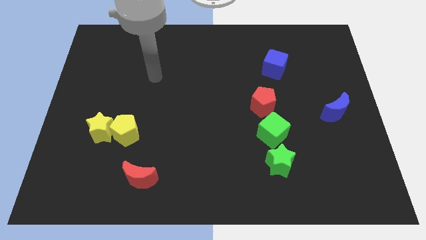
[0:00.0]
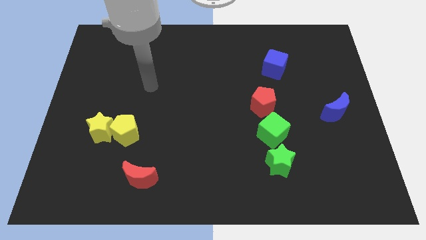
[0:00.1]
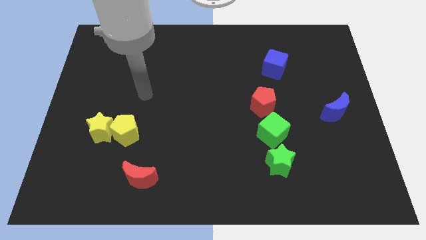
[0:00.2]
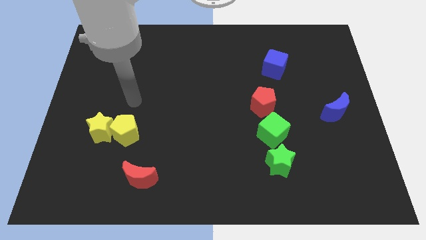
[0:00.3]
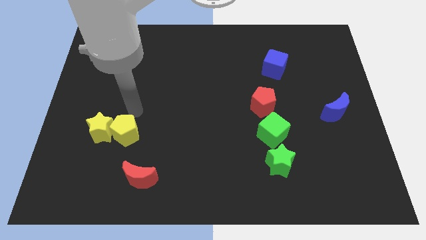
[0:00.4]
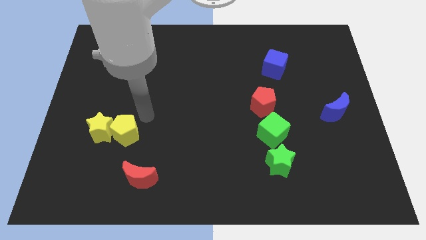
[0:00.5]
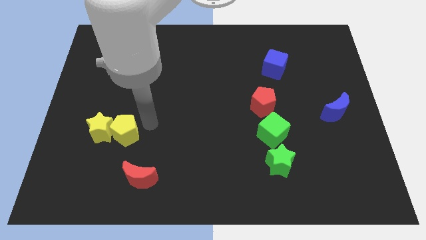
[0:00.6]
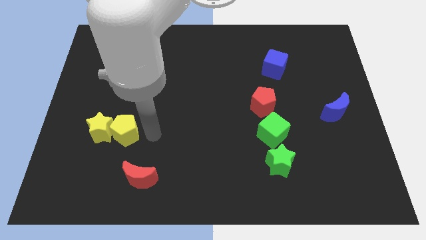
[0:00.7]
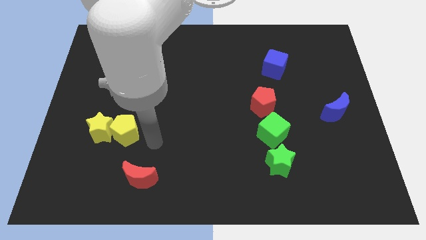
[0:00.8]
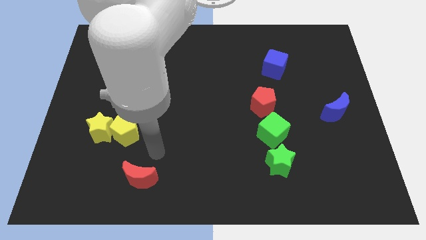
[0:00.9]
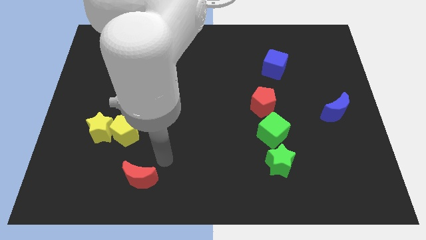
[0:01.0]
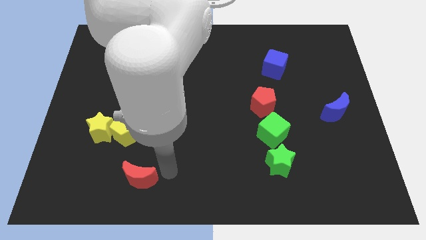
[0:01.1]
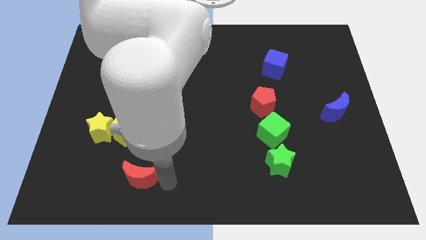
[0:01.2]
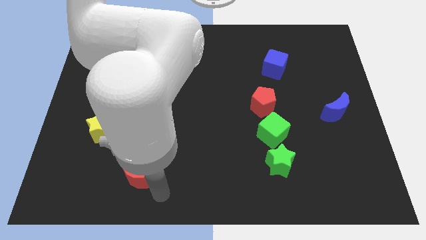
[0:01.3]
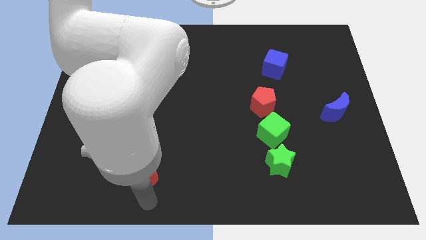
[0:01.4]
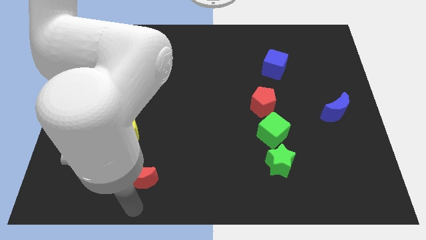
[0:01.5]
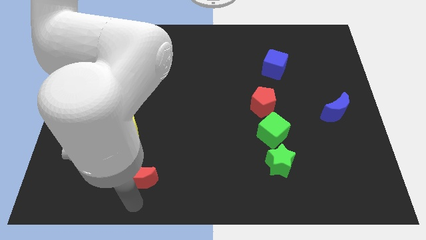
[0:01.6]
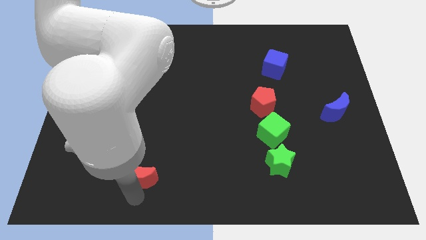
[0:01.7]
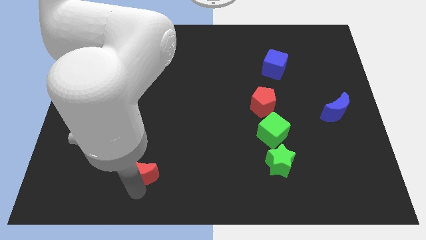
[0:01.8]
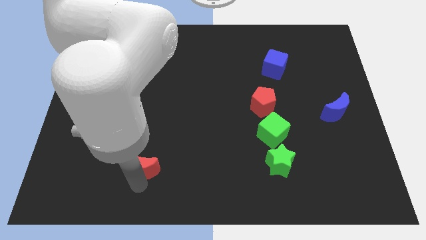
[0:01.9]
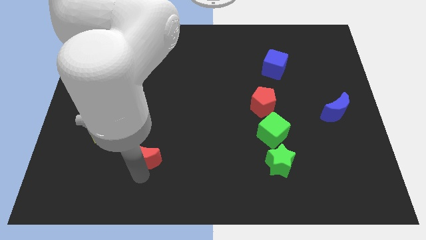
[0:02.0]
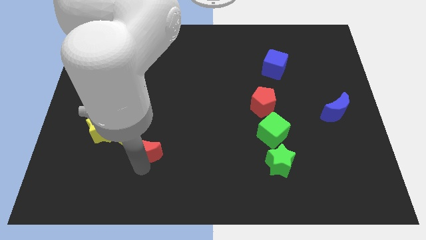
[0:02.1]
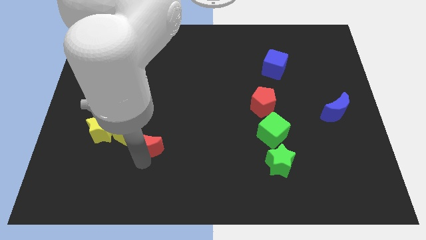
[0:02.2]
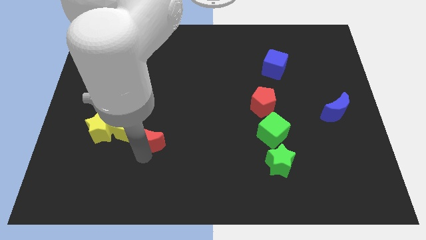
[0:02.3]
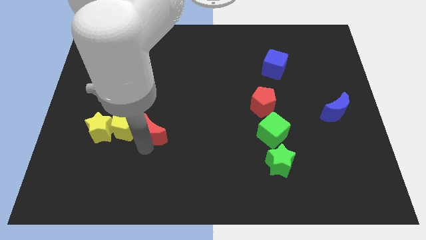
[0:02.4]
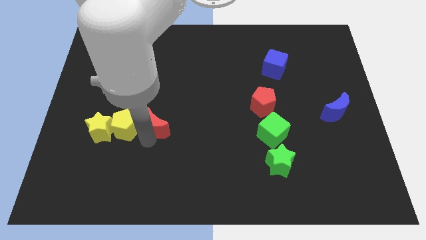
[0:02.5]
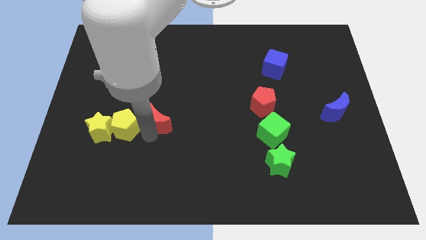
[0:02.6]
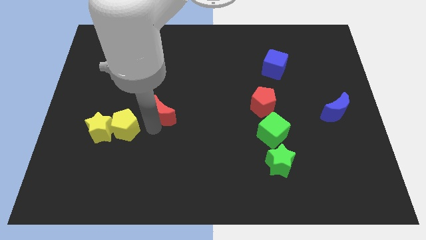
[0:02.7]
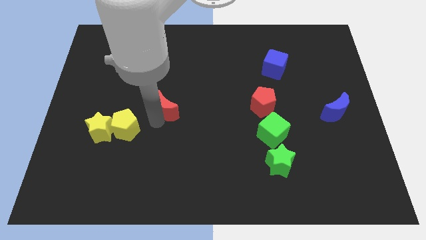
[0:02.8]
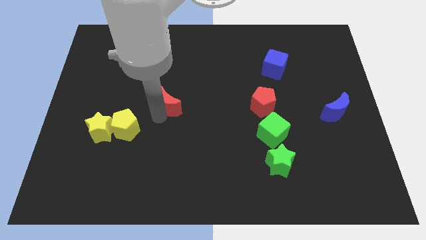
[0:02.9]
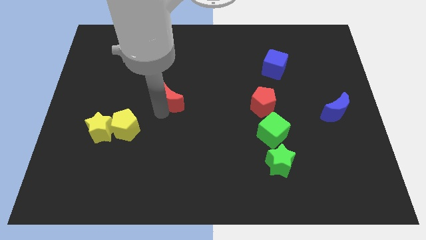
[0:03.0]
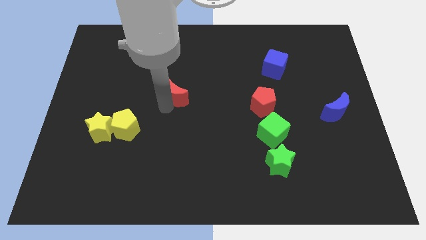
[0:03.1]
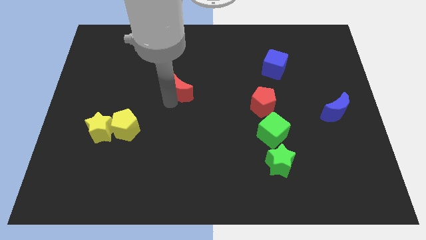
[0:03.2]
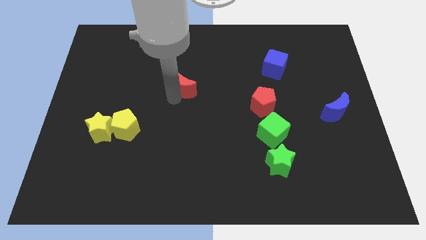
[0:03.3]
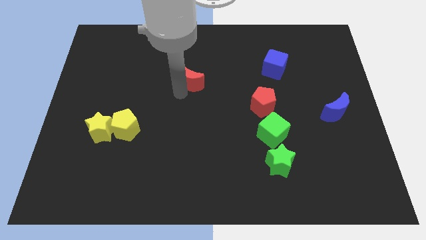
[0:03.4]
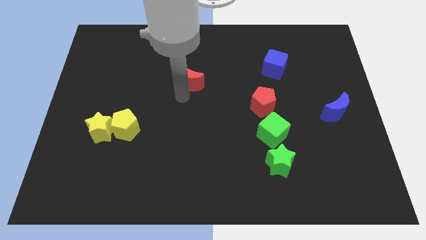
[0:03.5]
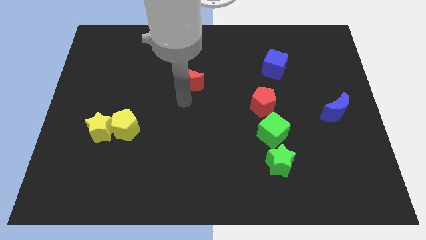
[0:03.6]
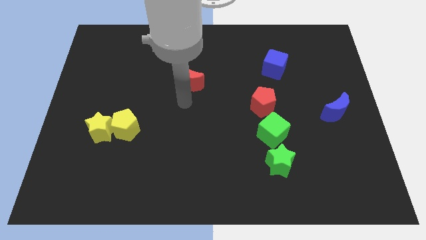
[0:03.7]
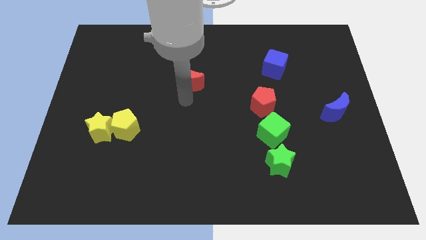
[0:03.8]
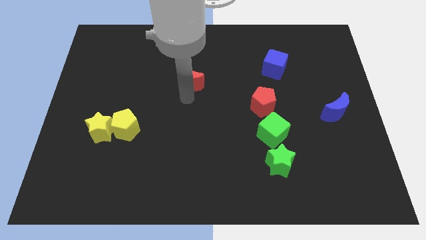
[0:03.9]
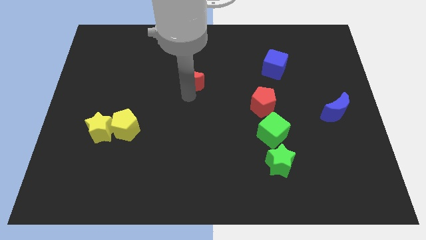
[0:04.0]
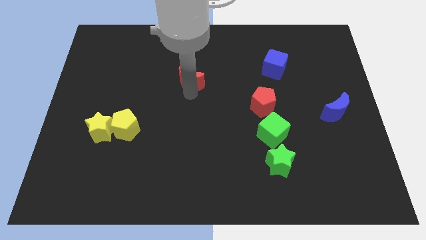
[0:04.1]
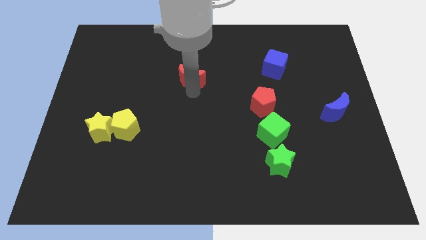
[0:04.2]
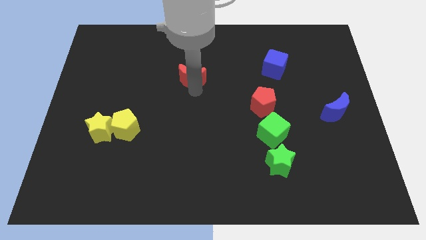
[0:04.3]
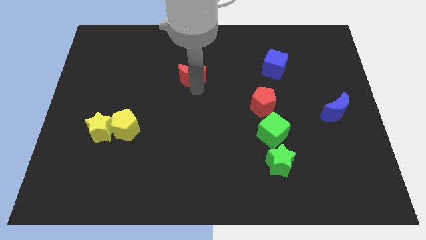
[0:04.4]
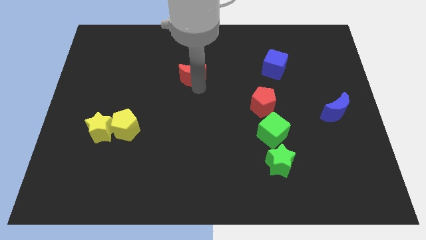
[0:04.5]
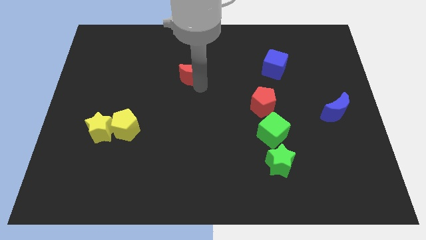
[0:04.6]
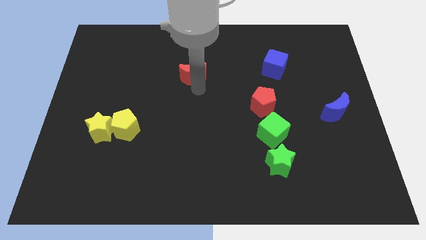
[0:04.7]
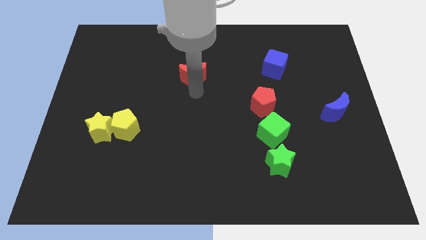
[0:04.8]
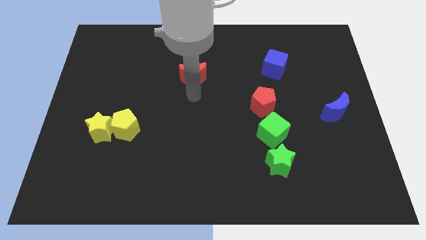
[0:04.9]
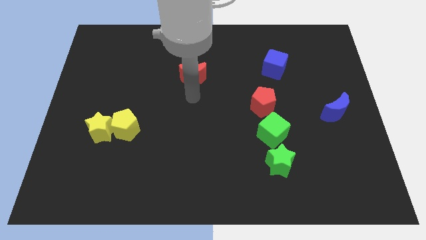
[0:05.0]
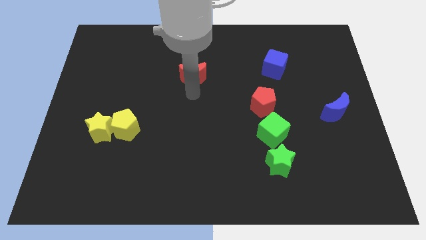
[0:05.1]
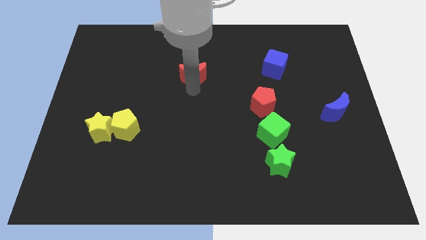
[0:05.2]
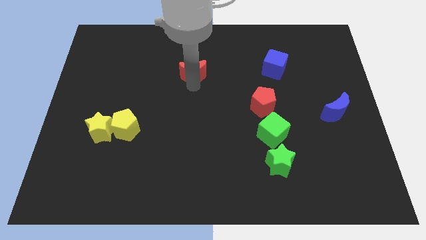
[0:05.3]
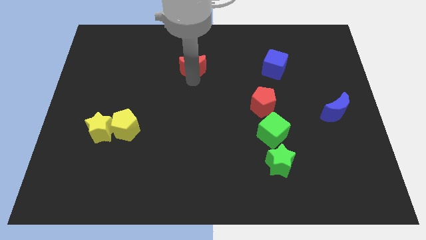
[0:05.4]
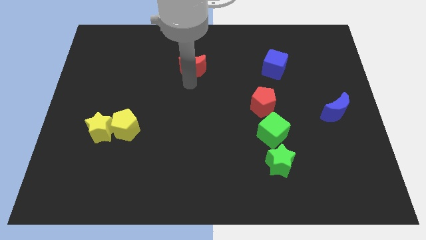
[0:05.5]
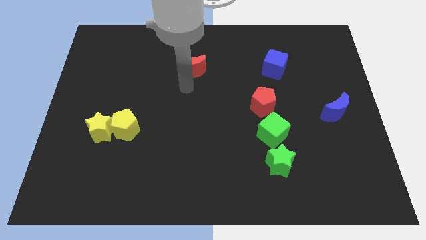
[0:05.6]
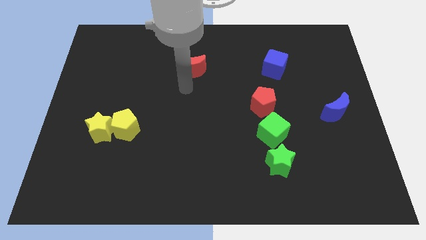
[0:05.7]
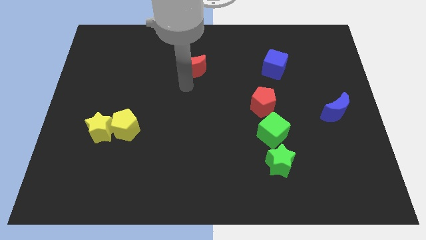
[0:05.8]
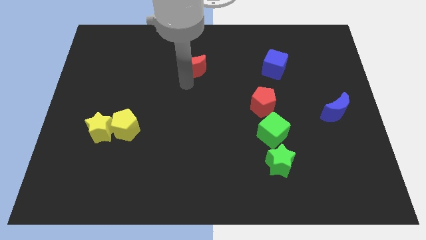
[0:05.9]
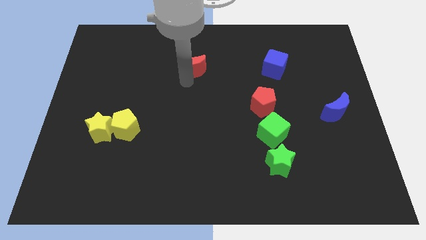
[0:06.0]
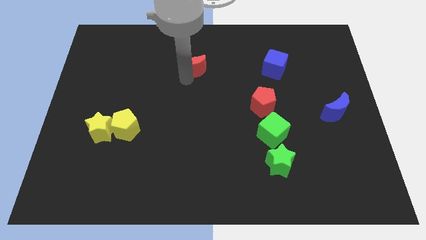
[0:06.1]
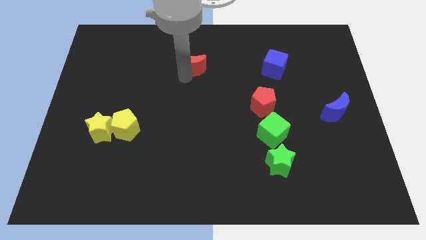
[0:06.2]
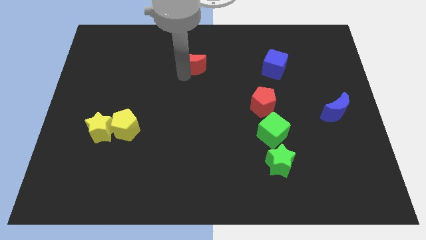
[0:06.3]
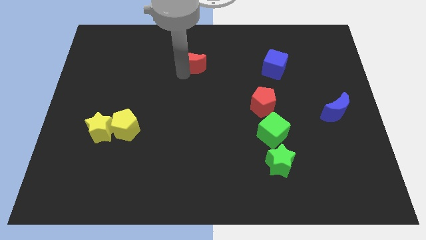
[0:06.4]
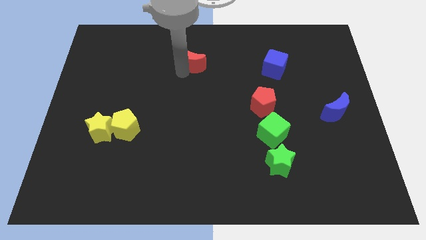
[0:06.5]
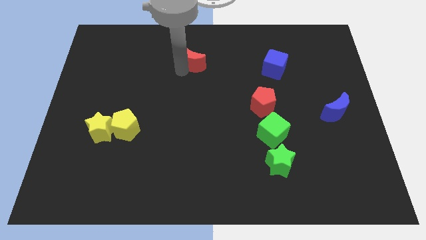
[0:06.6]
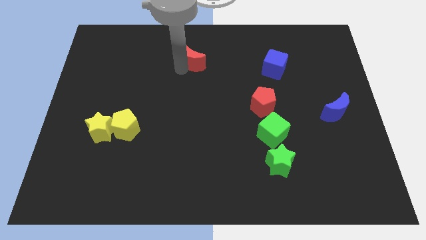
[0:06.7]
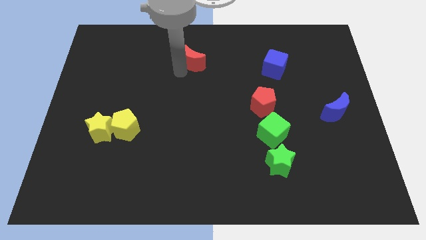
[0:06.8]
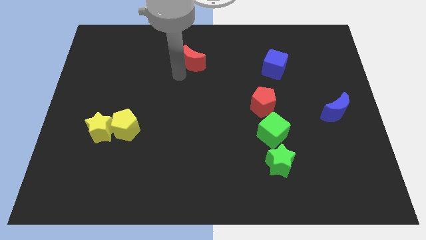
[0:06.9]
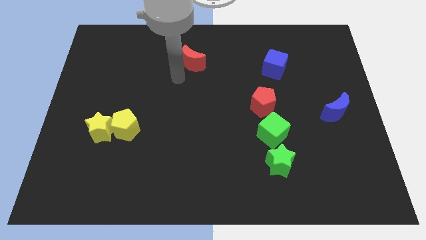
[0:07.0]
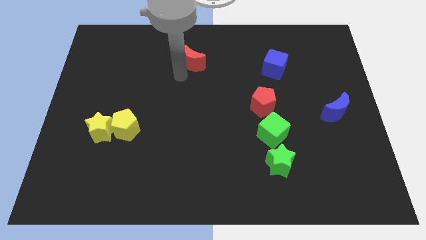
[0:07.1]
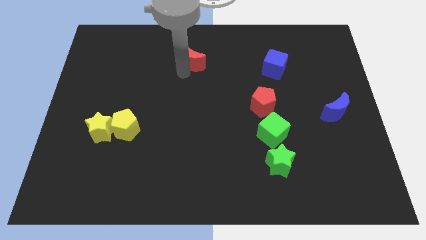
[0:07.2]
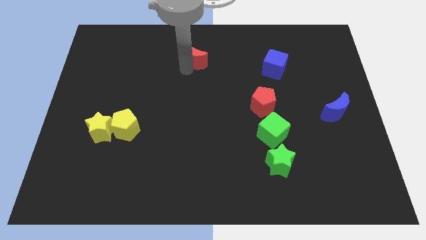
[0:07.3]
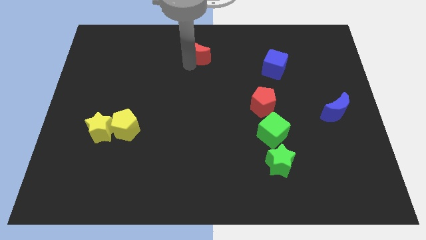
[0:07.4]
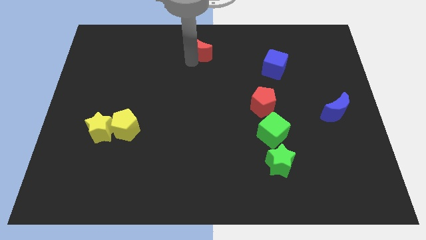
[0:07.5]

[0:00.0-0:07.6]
push the red moon to the top side
